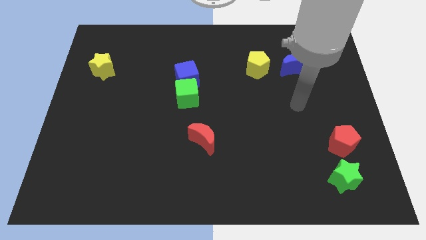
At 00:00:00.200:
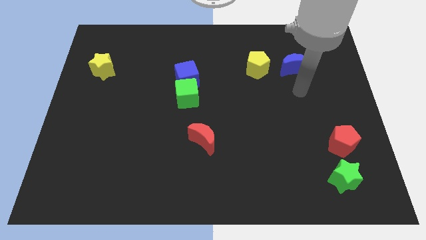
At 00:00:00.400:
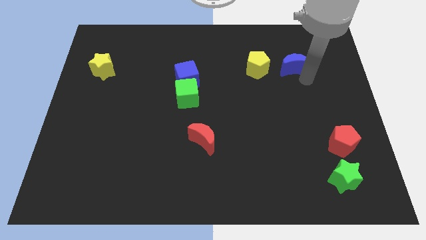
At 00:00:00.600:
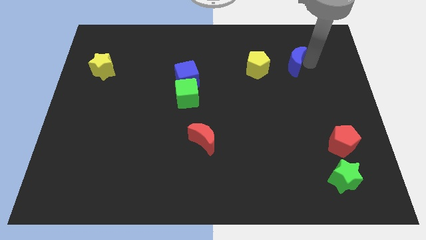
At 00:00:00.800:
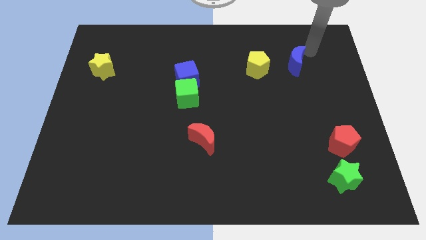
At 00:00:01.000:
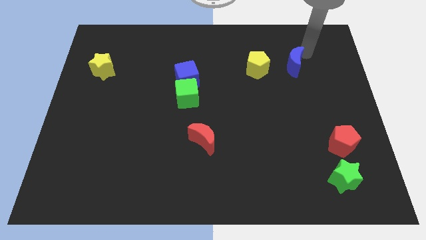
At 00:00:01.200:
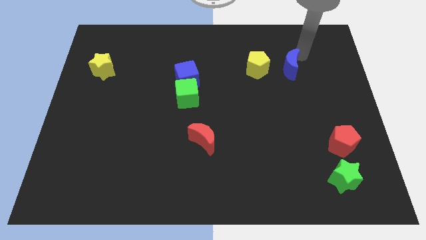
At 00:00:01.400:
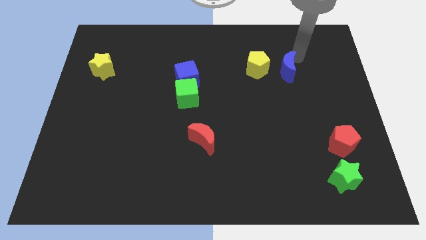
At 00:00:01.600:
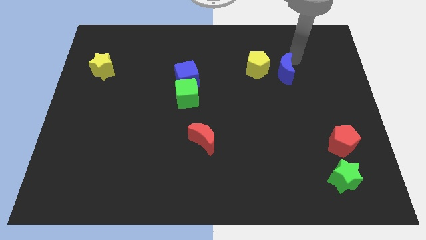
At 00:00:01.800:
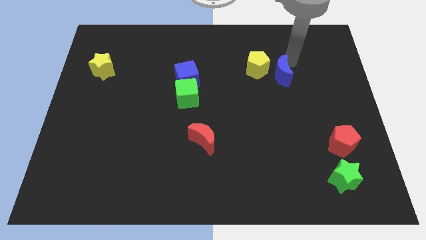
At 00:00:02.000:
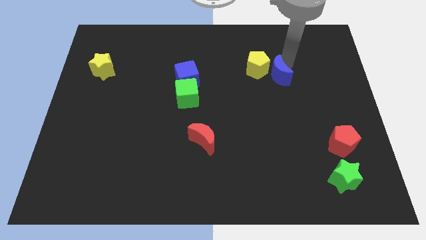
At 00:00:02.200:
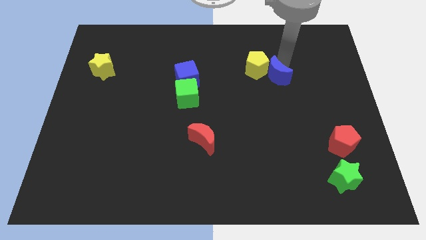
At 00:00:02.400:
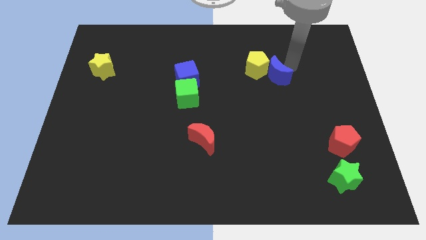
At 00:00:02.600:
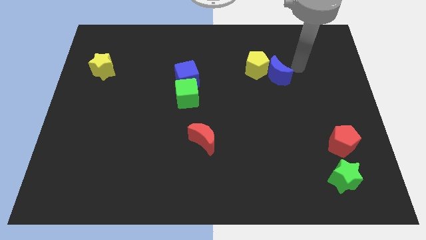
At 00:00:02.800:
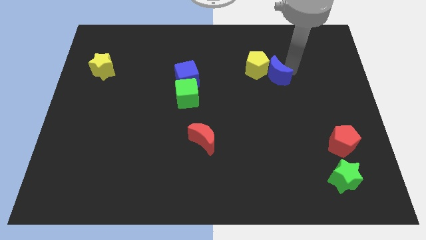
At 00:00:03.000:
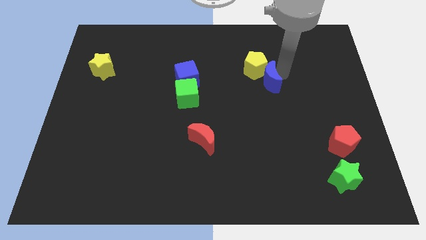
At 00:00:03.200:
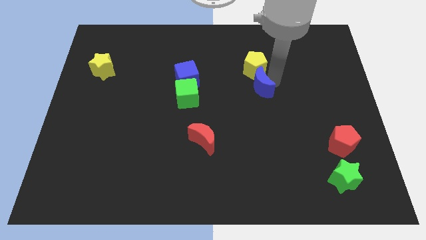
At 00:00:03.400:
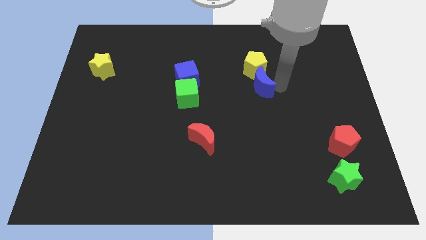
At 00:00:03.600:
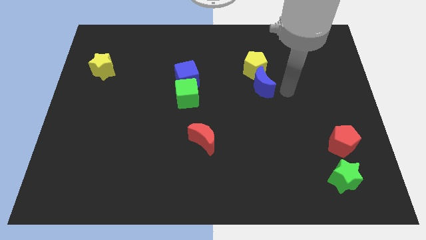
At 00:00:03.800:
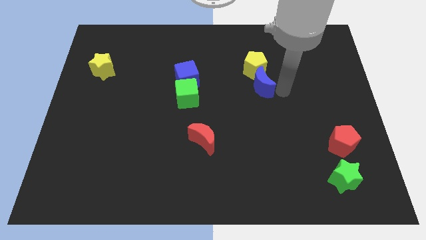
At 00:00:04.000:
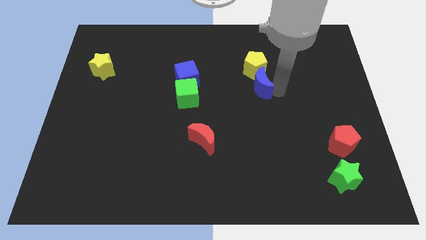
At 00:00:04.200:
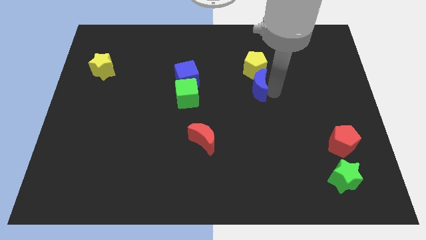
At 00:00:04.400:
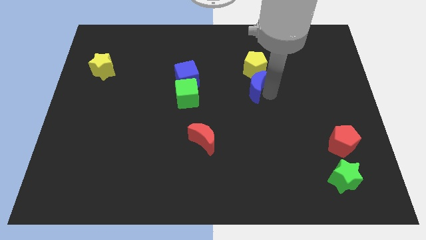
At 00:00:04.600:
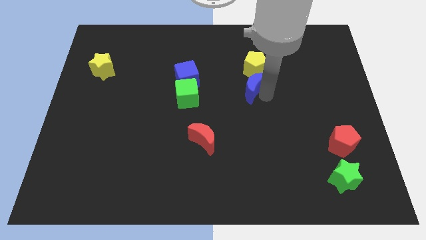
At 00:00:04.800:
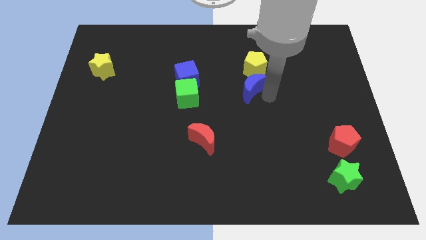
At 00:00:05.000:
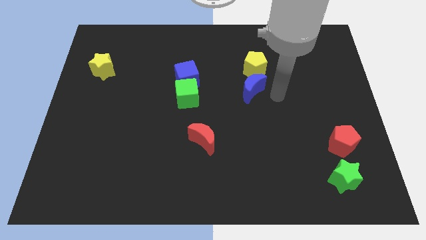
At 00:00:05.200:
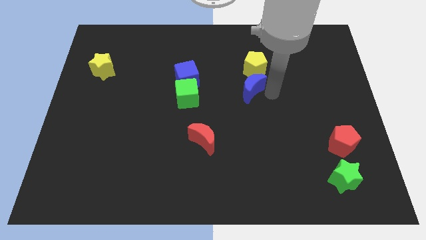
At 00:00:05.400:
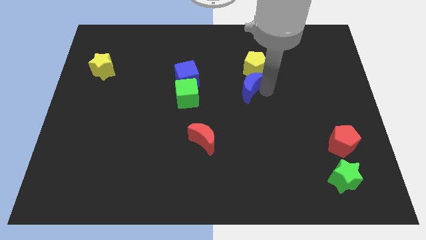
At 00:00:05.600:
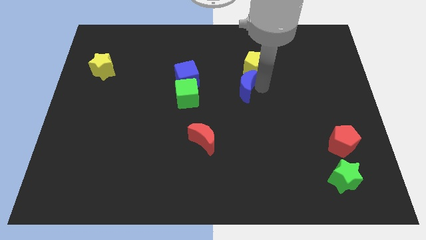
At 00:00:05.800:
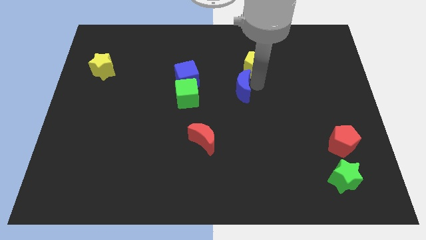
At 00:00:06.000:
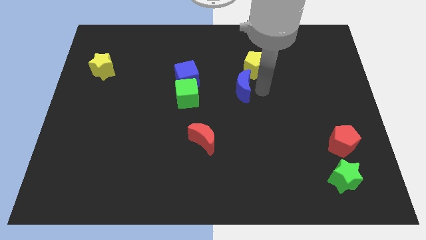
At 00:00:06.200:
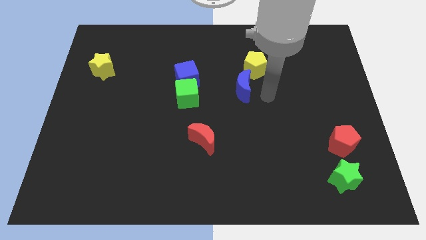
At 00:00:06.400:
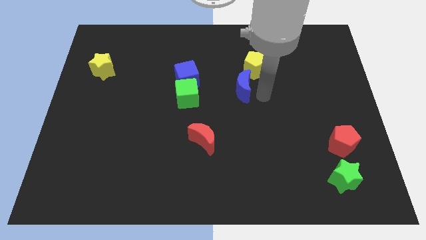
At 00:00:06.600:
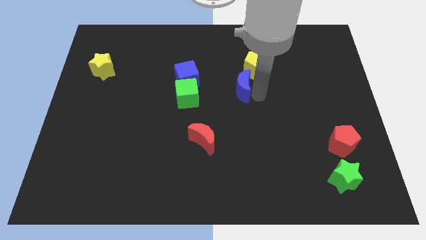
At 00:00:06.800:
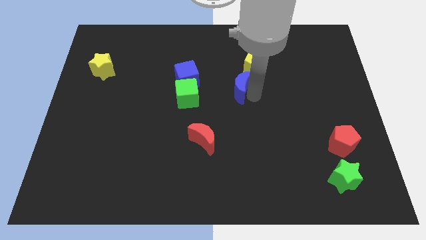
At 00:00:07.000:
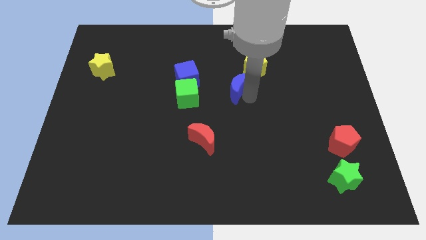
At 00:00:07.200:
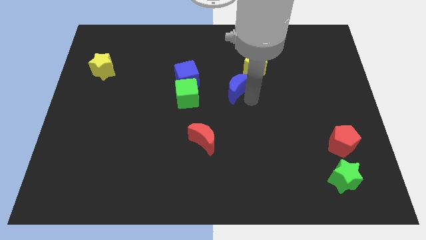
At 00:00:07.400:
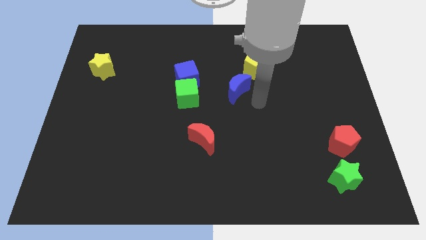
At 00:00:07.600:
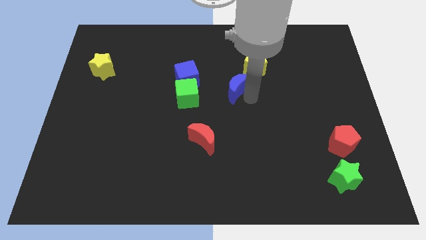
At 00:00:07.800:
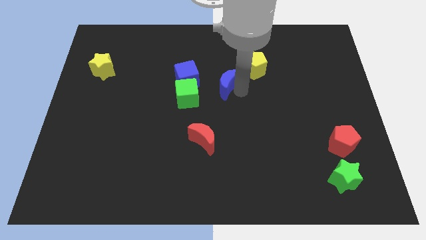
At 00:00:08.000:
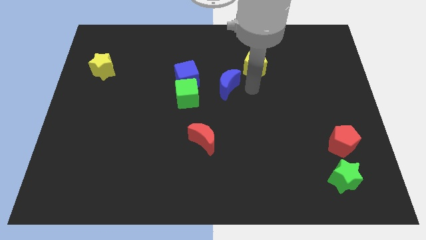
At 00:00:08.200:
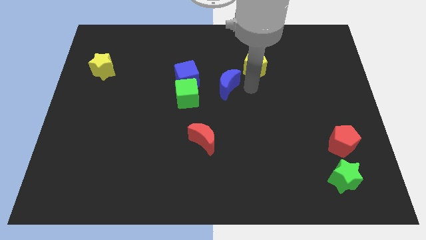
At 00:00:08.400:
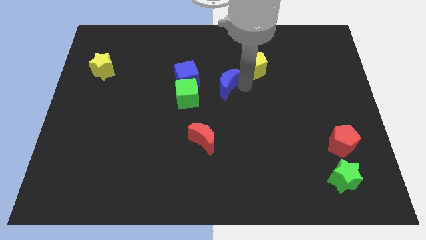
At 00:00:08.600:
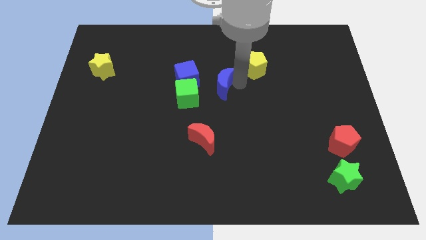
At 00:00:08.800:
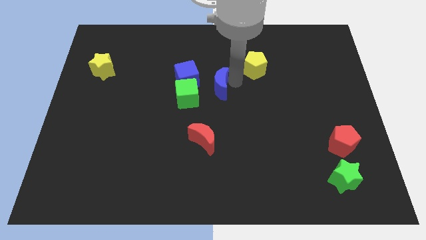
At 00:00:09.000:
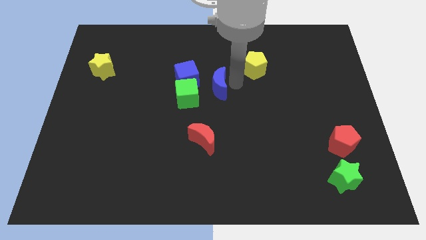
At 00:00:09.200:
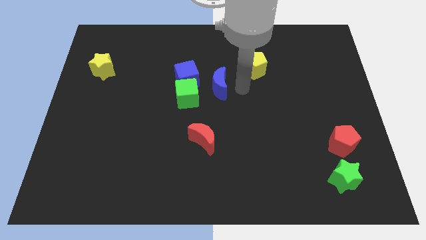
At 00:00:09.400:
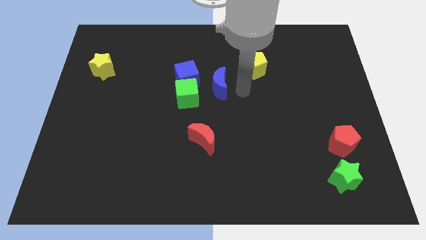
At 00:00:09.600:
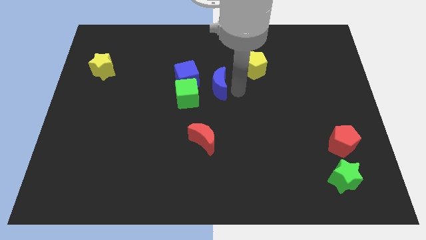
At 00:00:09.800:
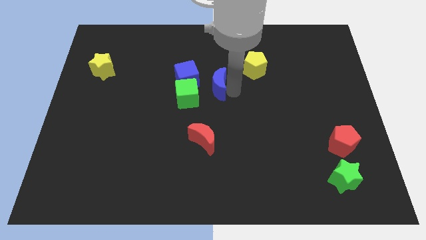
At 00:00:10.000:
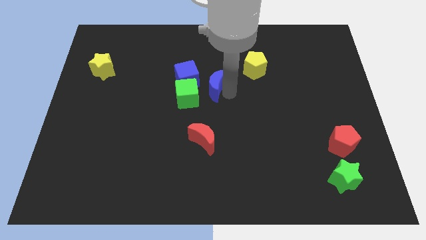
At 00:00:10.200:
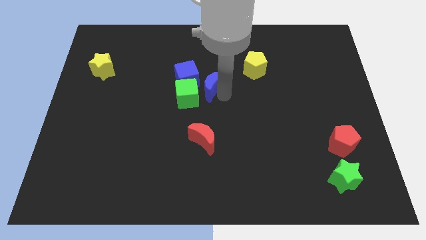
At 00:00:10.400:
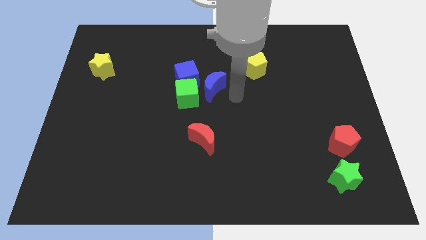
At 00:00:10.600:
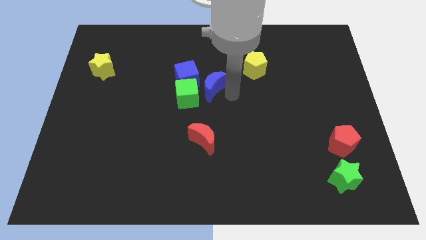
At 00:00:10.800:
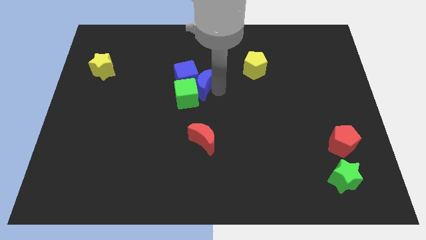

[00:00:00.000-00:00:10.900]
put the blue moon to the blue cube

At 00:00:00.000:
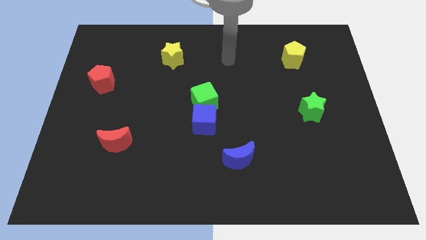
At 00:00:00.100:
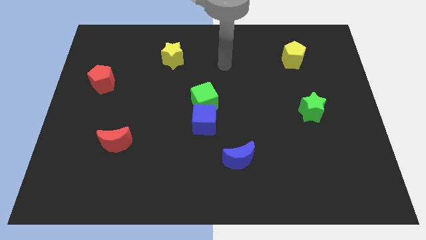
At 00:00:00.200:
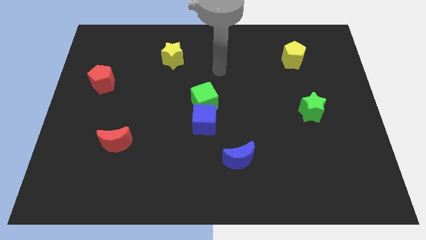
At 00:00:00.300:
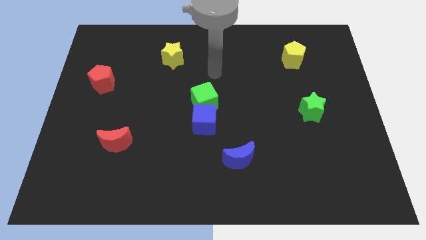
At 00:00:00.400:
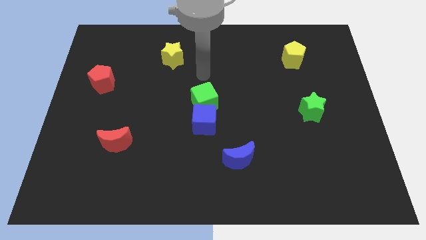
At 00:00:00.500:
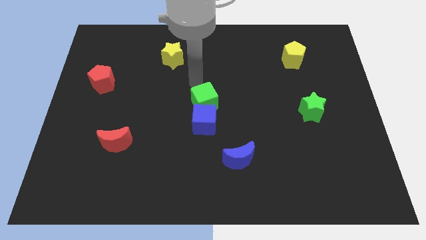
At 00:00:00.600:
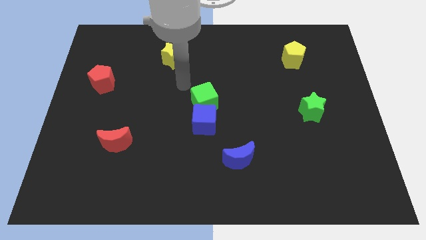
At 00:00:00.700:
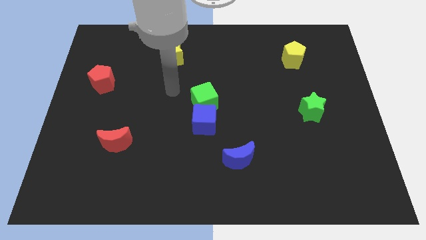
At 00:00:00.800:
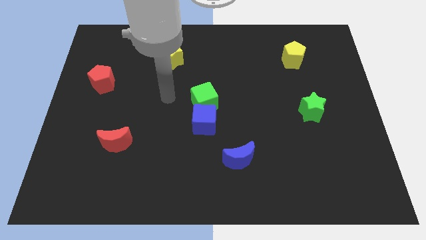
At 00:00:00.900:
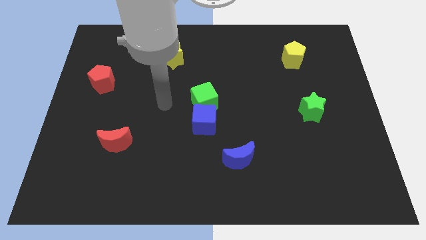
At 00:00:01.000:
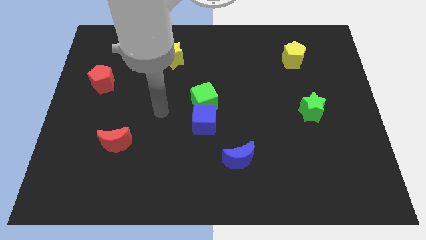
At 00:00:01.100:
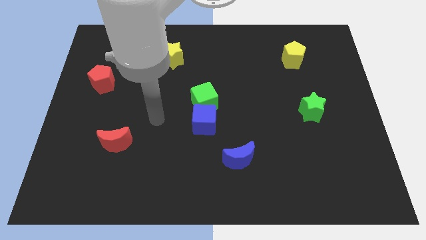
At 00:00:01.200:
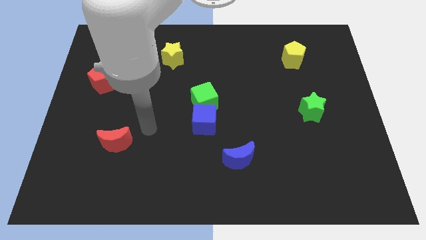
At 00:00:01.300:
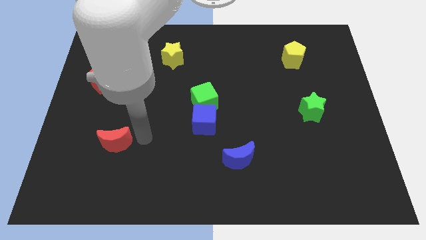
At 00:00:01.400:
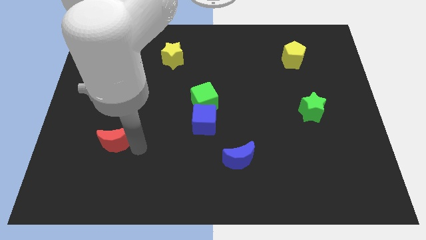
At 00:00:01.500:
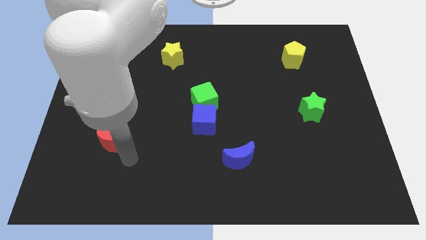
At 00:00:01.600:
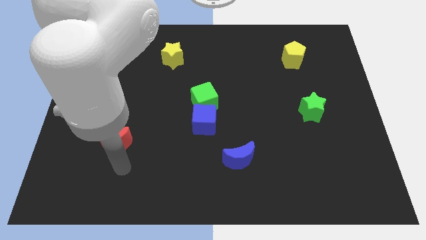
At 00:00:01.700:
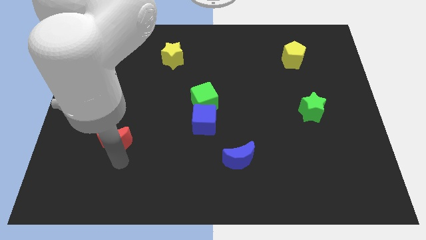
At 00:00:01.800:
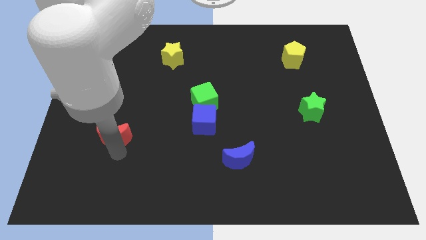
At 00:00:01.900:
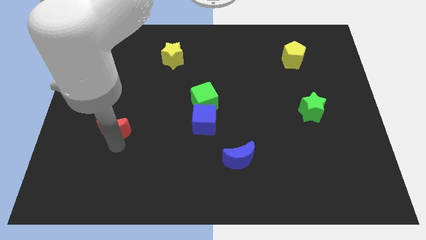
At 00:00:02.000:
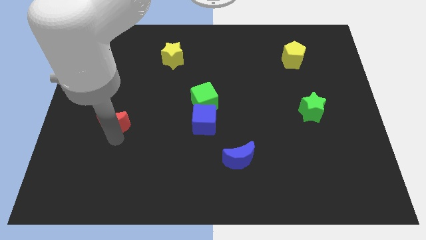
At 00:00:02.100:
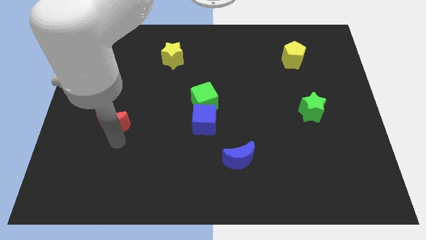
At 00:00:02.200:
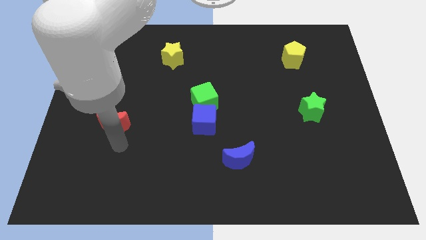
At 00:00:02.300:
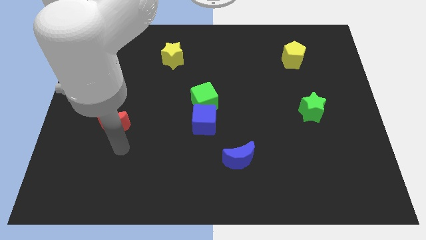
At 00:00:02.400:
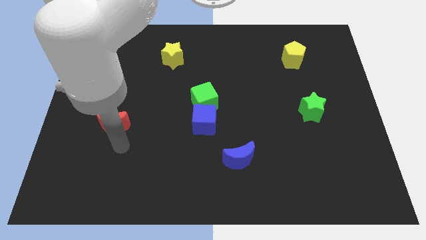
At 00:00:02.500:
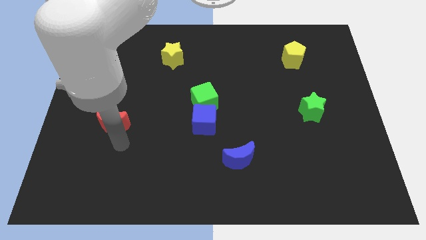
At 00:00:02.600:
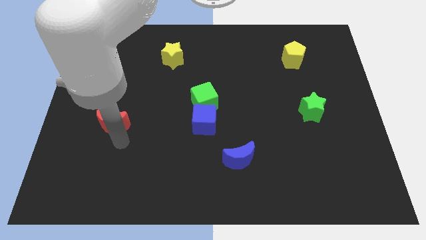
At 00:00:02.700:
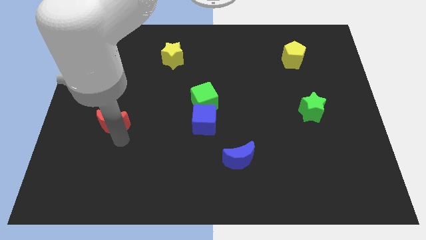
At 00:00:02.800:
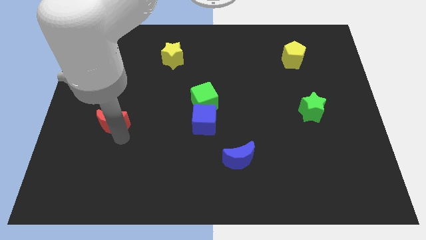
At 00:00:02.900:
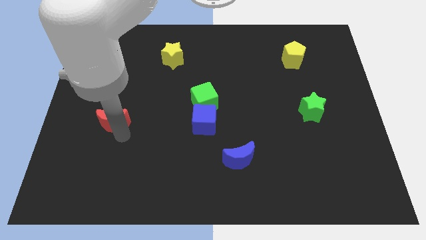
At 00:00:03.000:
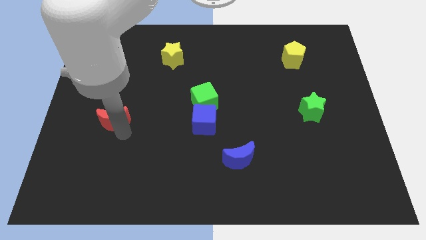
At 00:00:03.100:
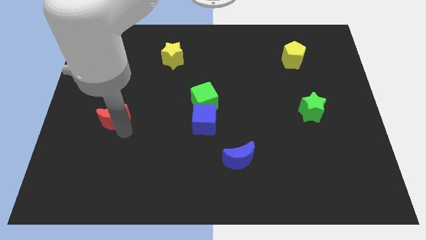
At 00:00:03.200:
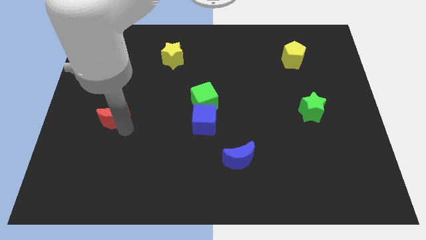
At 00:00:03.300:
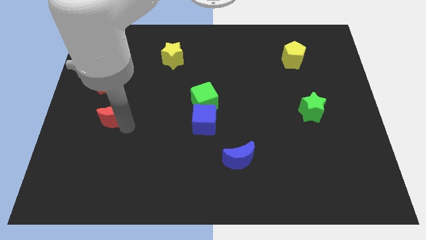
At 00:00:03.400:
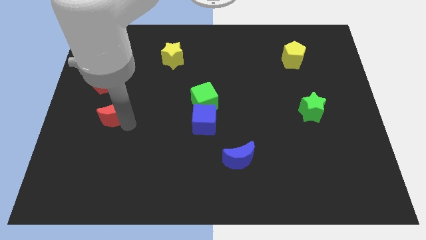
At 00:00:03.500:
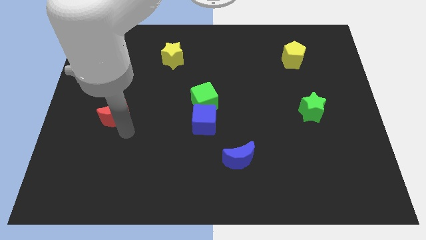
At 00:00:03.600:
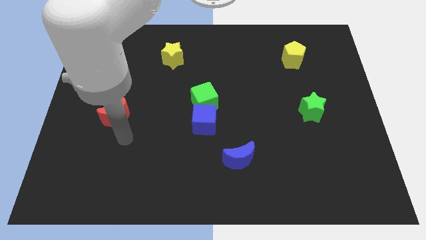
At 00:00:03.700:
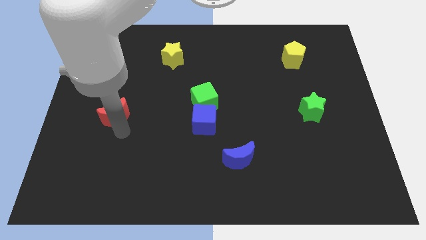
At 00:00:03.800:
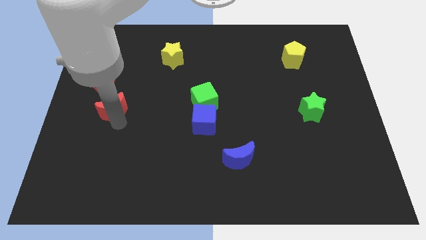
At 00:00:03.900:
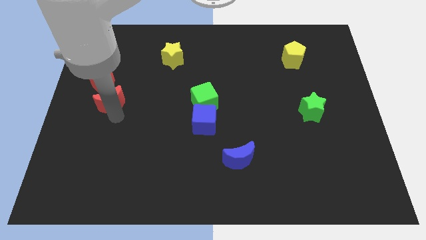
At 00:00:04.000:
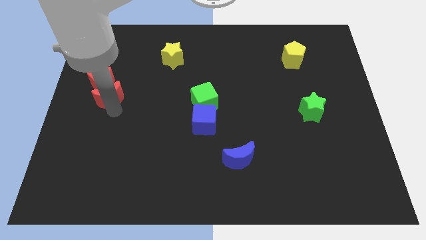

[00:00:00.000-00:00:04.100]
put the red moon close to the red pentagon
